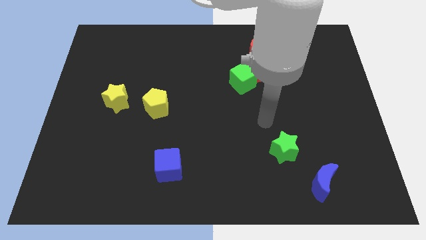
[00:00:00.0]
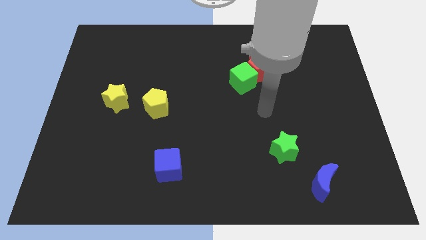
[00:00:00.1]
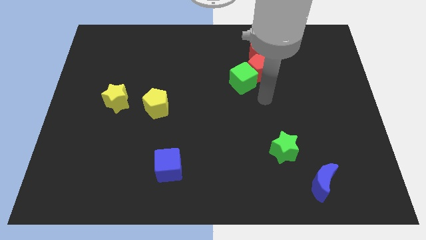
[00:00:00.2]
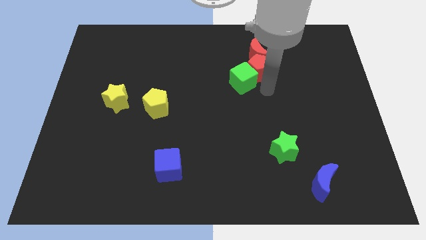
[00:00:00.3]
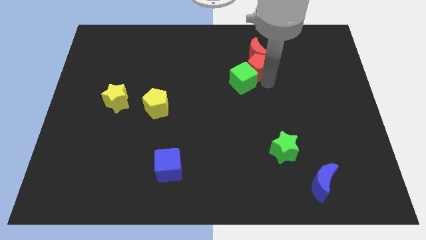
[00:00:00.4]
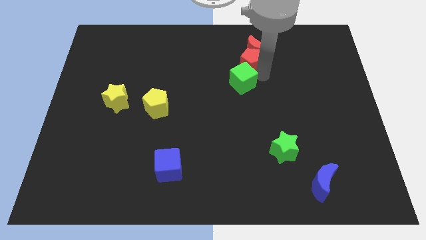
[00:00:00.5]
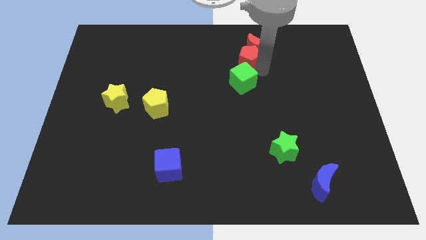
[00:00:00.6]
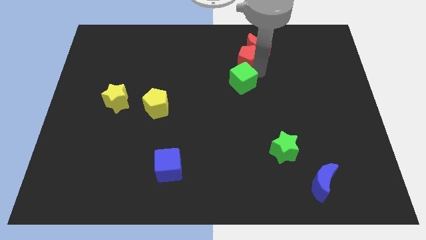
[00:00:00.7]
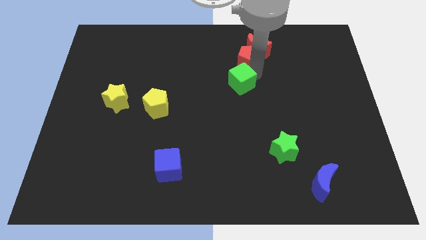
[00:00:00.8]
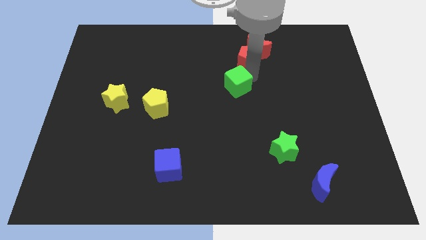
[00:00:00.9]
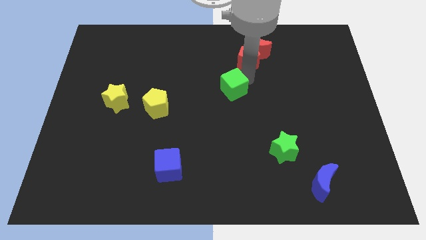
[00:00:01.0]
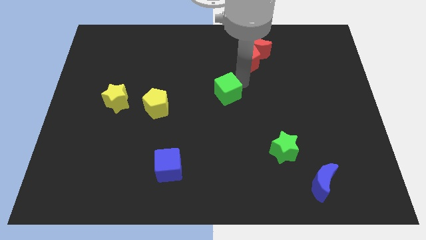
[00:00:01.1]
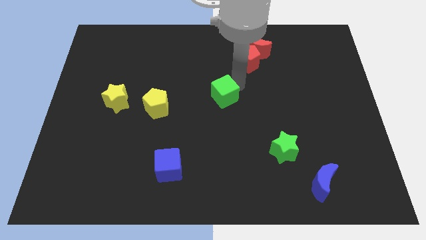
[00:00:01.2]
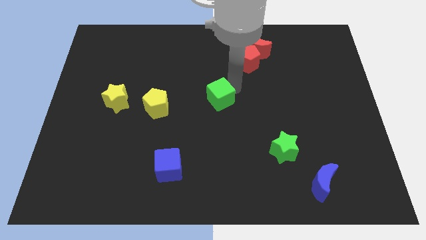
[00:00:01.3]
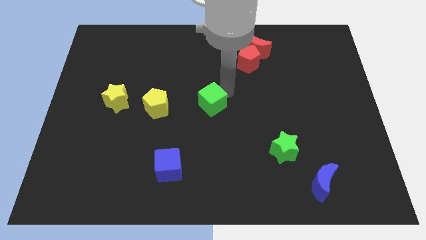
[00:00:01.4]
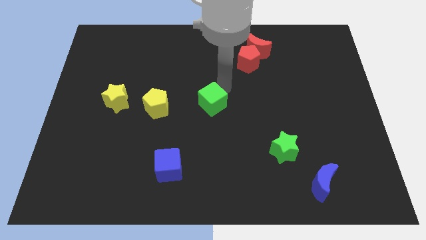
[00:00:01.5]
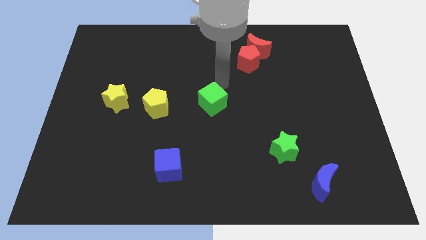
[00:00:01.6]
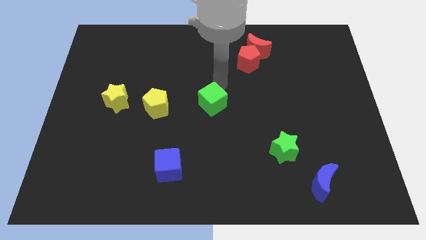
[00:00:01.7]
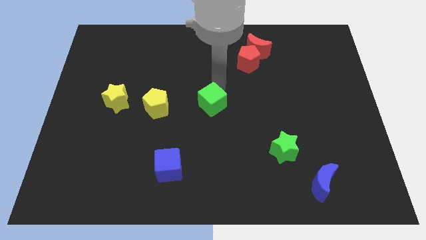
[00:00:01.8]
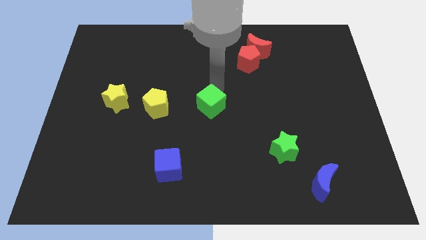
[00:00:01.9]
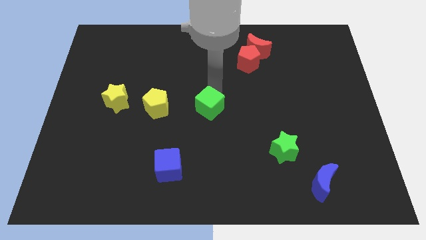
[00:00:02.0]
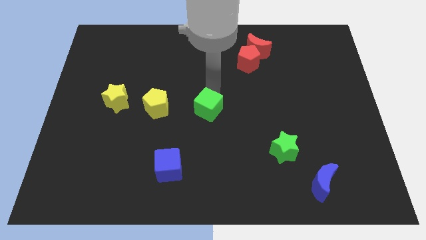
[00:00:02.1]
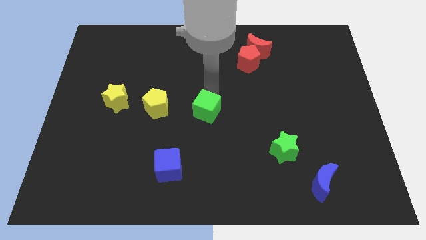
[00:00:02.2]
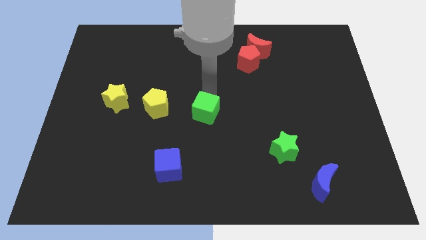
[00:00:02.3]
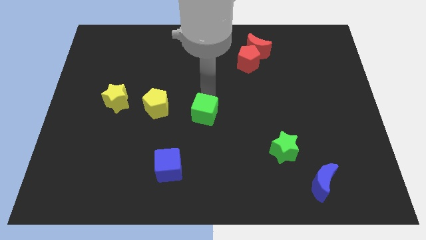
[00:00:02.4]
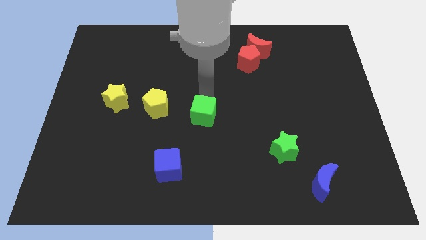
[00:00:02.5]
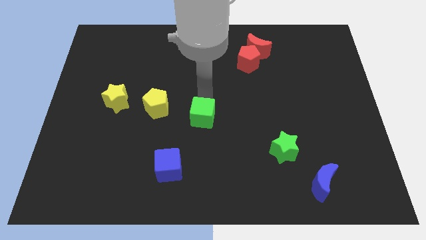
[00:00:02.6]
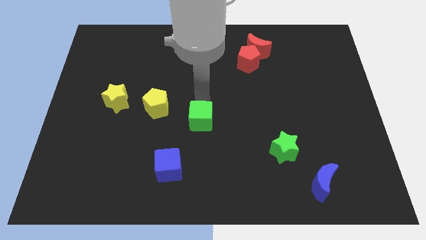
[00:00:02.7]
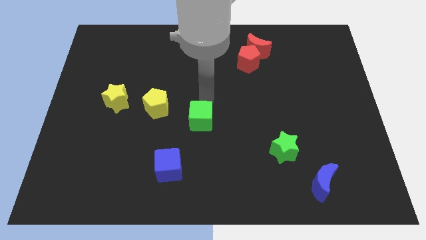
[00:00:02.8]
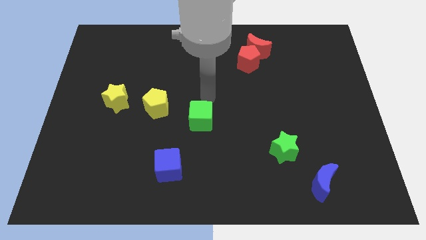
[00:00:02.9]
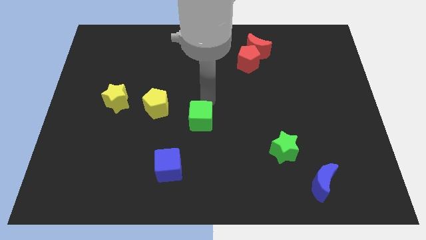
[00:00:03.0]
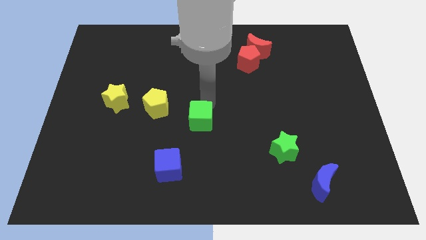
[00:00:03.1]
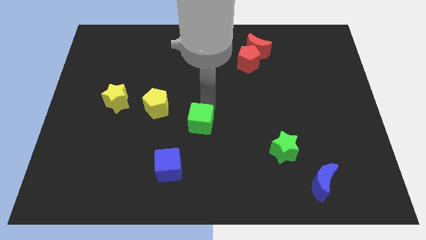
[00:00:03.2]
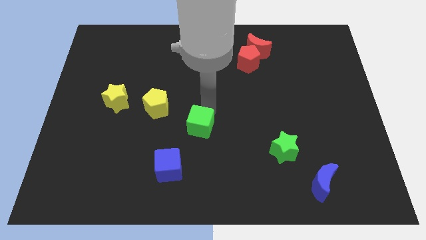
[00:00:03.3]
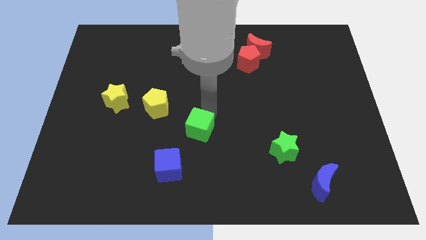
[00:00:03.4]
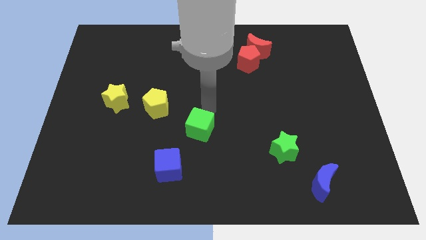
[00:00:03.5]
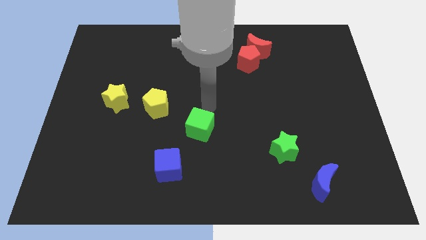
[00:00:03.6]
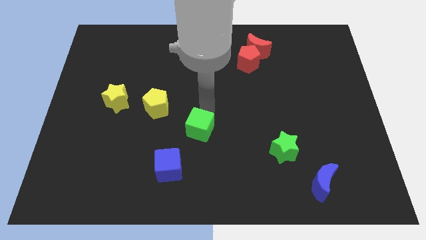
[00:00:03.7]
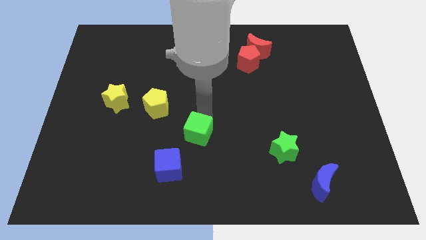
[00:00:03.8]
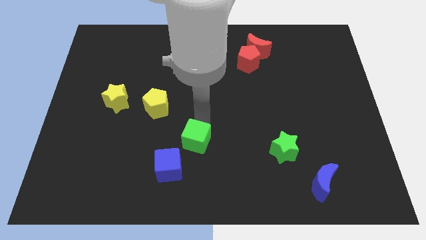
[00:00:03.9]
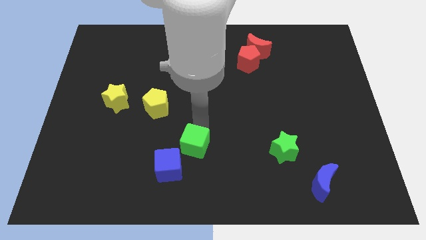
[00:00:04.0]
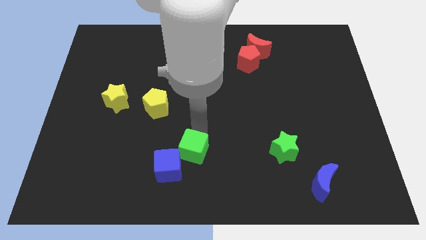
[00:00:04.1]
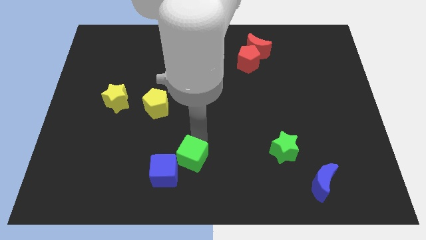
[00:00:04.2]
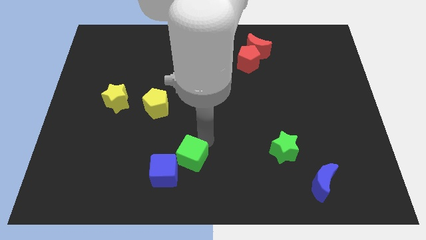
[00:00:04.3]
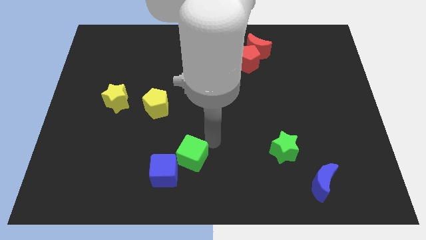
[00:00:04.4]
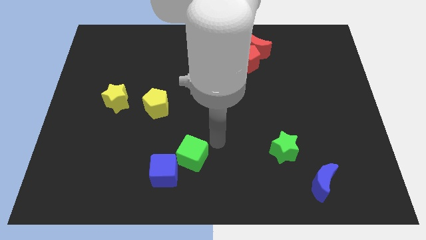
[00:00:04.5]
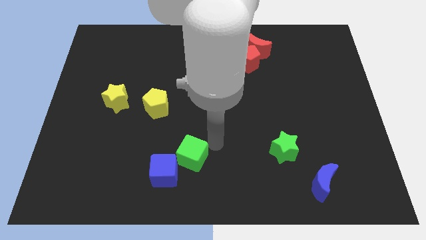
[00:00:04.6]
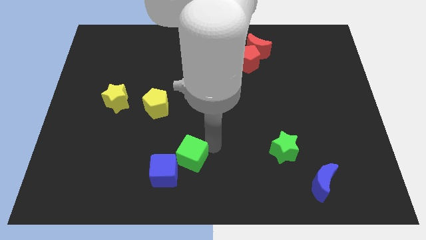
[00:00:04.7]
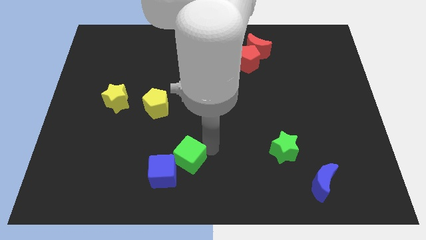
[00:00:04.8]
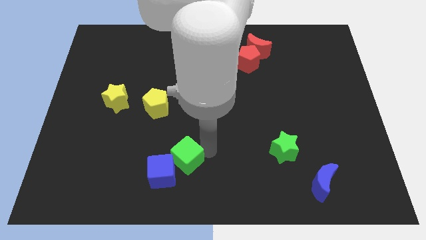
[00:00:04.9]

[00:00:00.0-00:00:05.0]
slide the green cube next to the blue cube

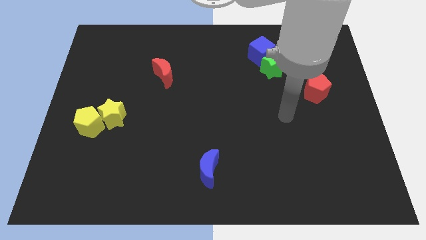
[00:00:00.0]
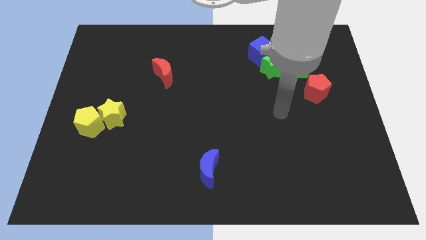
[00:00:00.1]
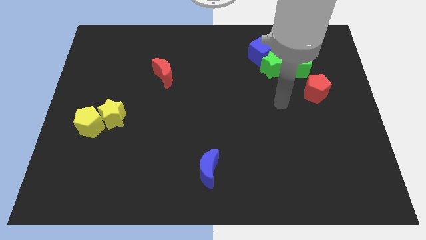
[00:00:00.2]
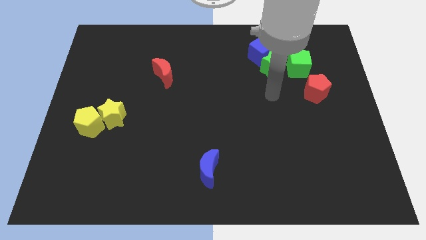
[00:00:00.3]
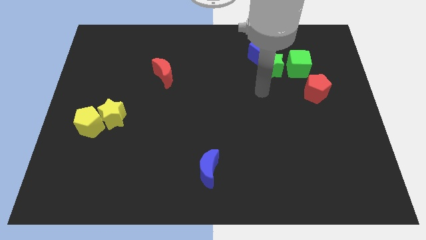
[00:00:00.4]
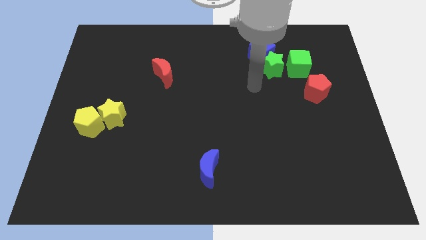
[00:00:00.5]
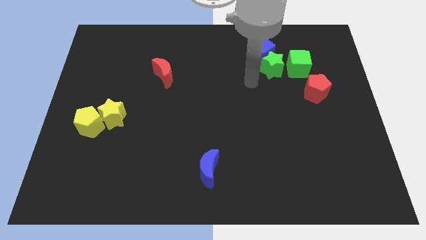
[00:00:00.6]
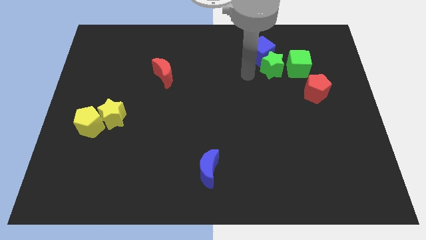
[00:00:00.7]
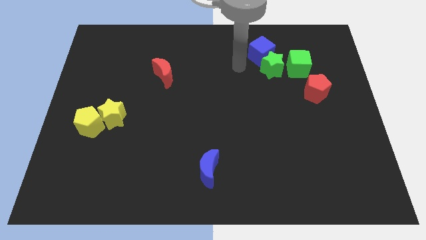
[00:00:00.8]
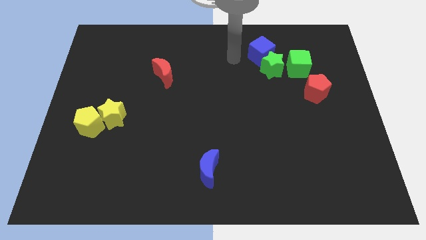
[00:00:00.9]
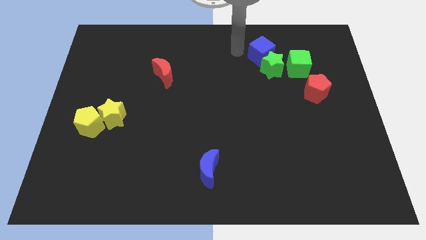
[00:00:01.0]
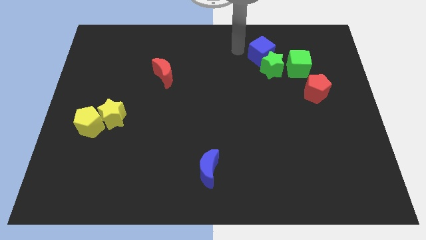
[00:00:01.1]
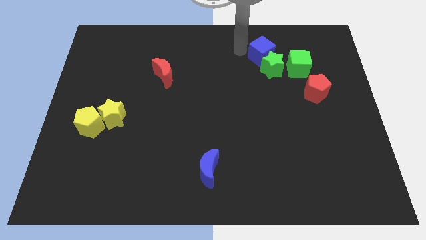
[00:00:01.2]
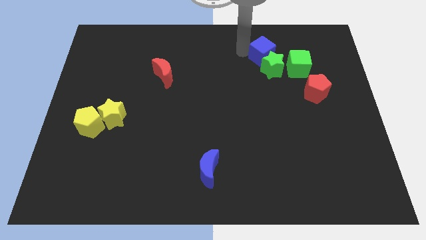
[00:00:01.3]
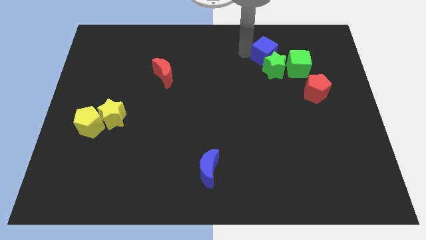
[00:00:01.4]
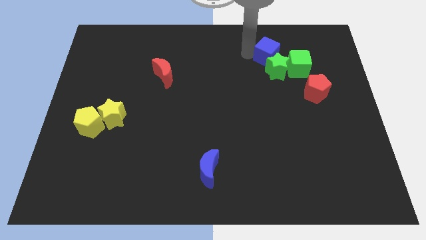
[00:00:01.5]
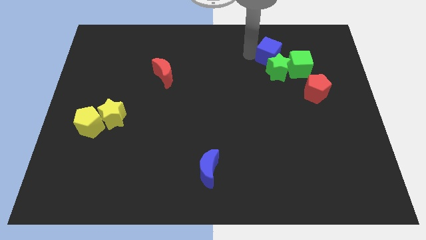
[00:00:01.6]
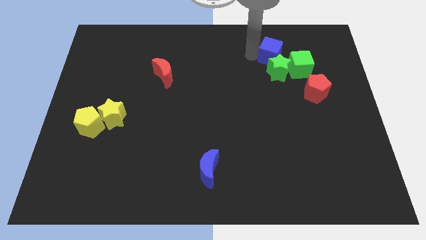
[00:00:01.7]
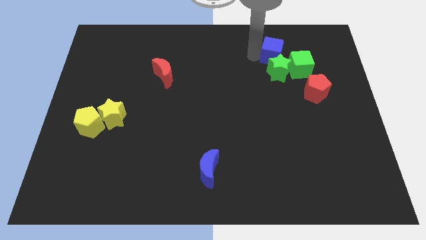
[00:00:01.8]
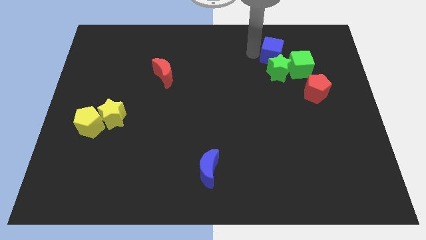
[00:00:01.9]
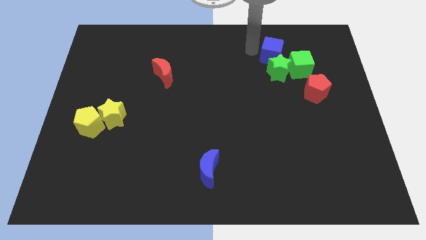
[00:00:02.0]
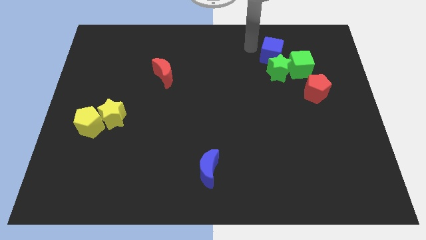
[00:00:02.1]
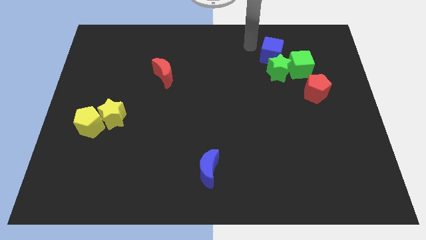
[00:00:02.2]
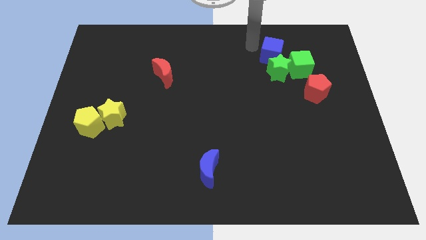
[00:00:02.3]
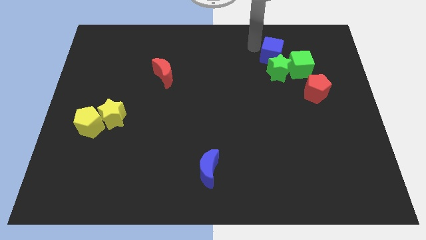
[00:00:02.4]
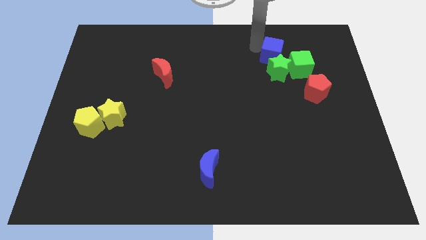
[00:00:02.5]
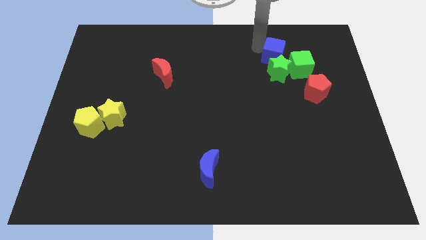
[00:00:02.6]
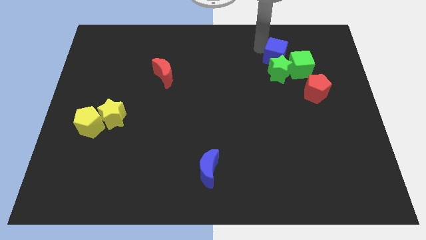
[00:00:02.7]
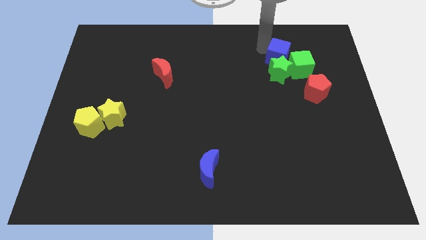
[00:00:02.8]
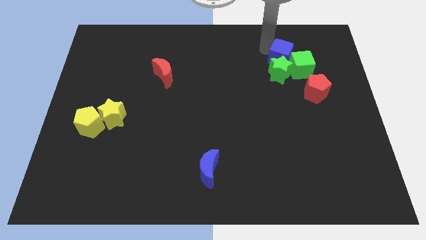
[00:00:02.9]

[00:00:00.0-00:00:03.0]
push the blue cube towards the green cube
